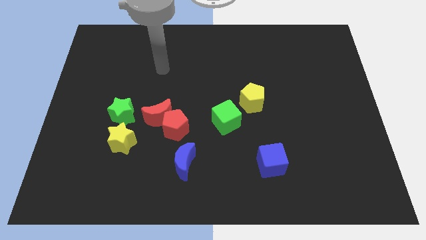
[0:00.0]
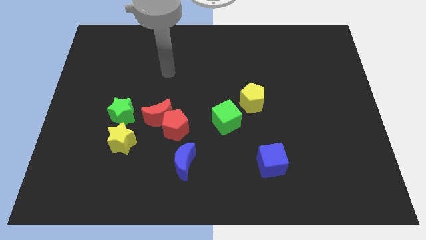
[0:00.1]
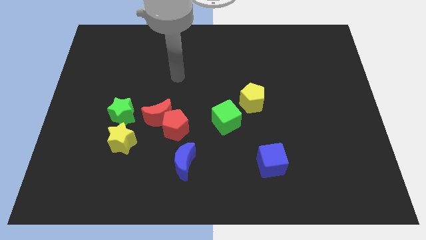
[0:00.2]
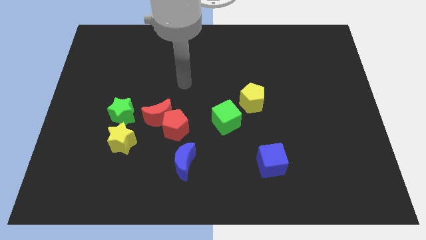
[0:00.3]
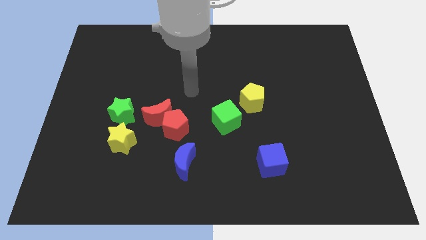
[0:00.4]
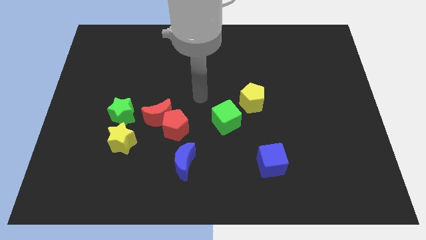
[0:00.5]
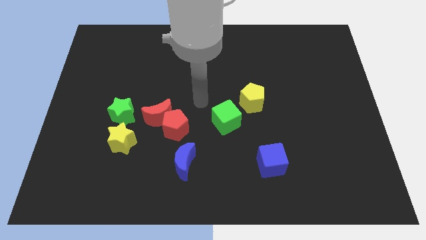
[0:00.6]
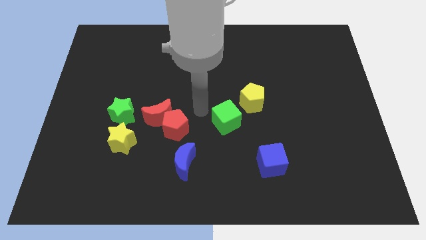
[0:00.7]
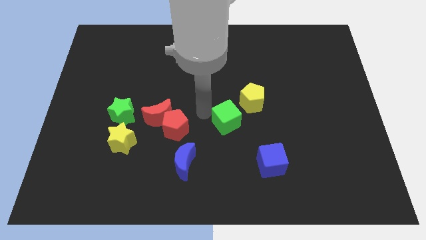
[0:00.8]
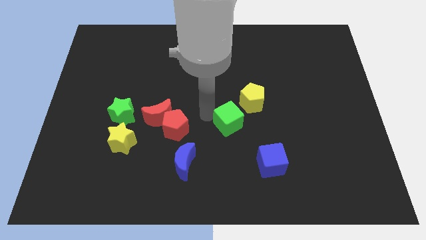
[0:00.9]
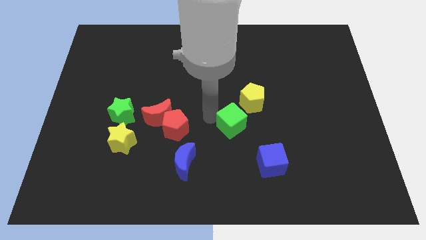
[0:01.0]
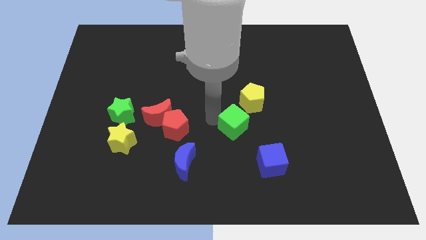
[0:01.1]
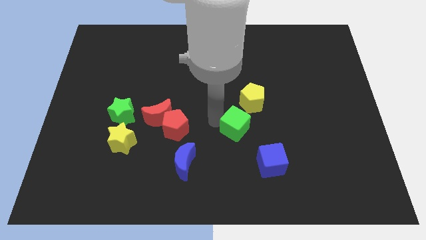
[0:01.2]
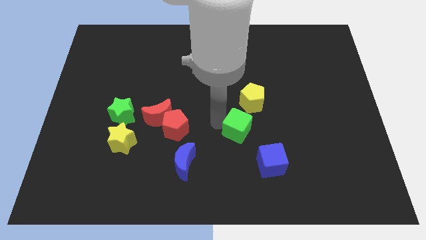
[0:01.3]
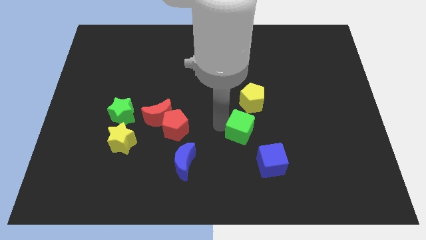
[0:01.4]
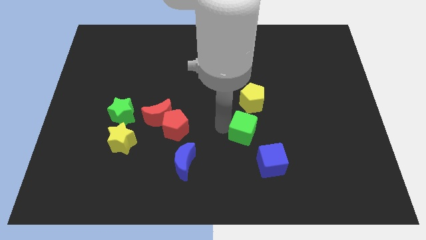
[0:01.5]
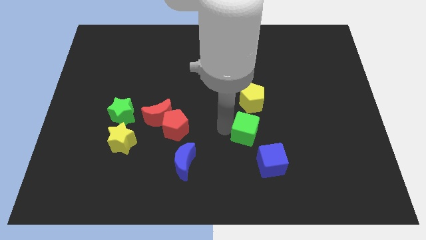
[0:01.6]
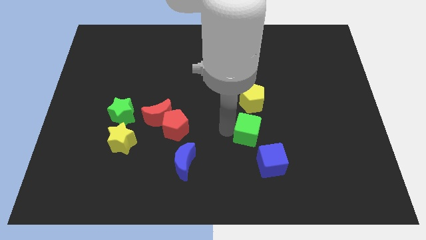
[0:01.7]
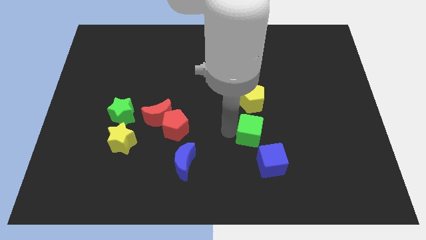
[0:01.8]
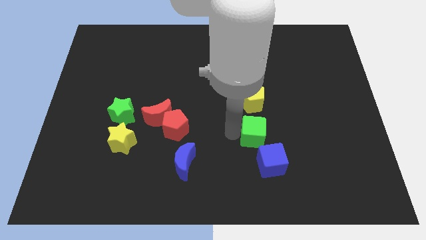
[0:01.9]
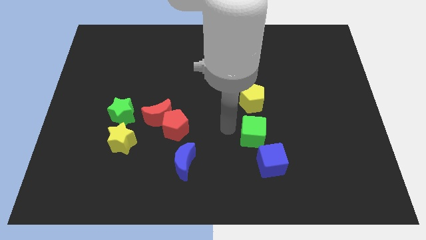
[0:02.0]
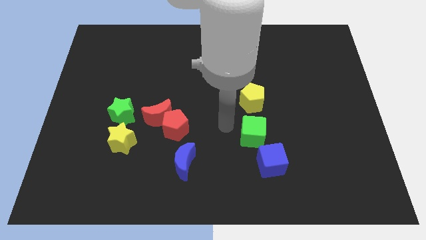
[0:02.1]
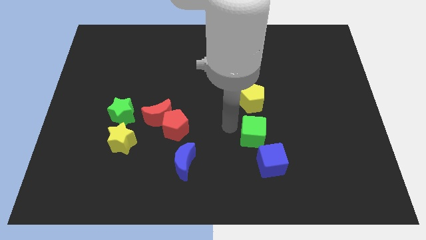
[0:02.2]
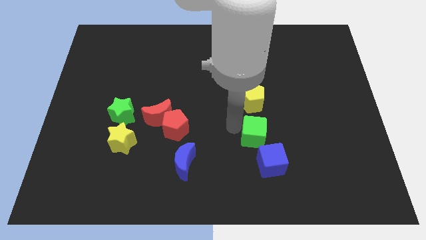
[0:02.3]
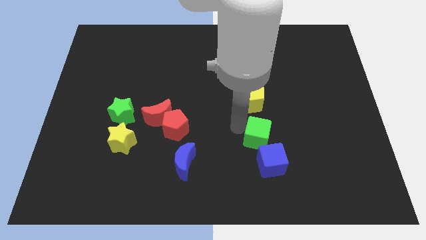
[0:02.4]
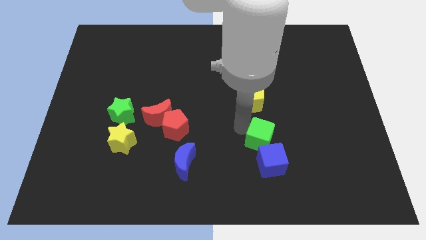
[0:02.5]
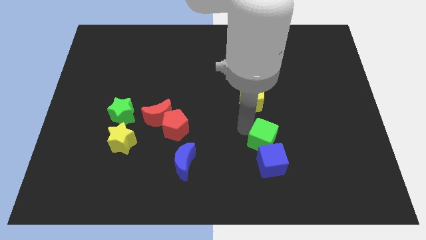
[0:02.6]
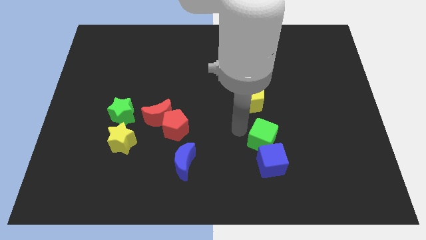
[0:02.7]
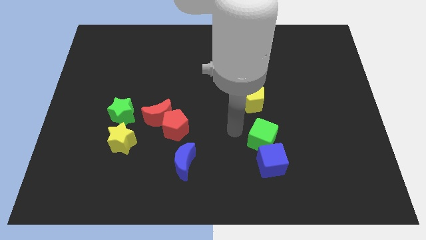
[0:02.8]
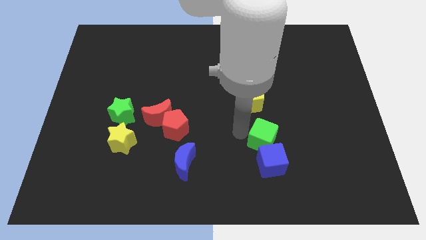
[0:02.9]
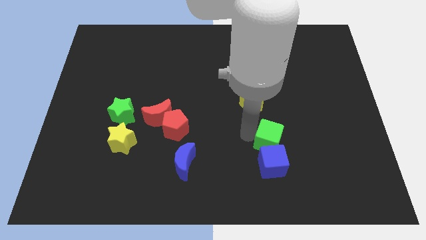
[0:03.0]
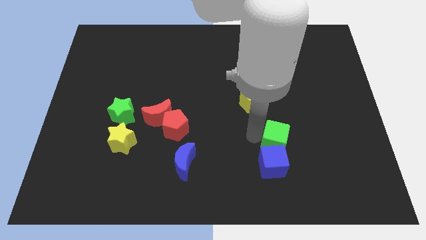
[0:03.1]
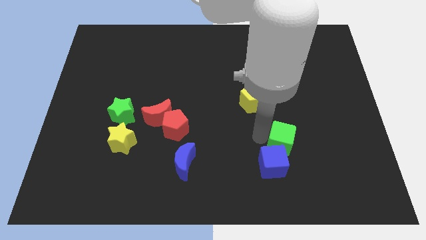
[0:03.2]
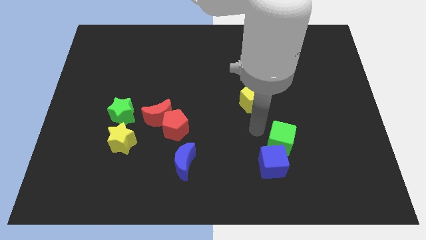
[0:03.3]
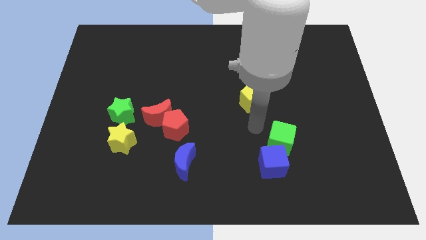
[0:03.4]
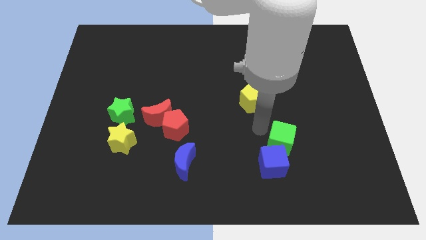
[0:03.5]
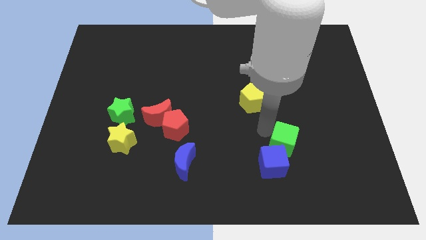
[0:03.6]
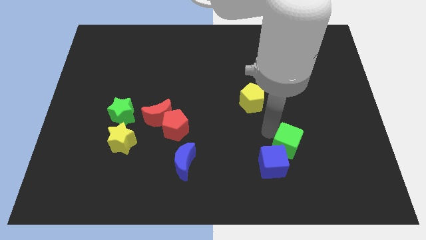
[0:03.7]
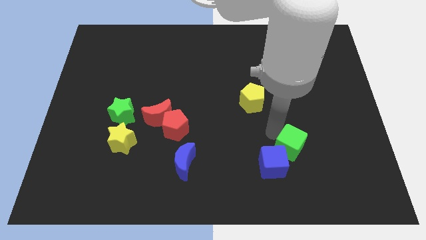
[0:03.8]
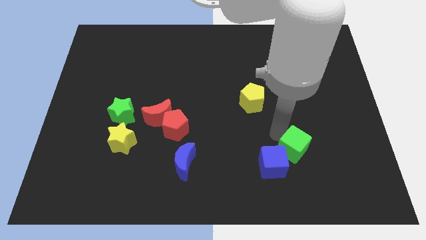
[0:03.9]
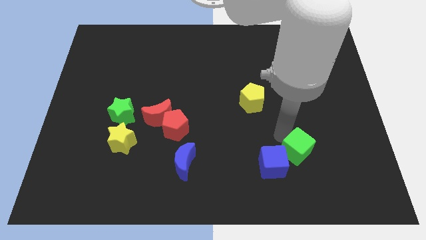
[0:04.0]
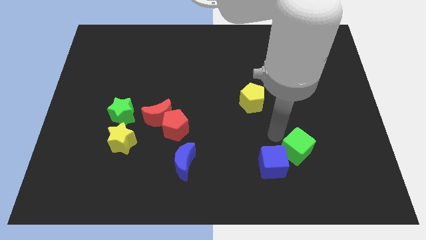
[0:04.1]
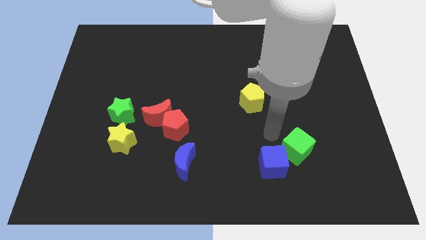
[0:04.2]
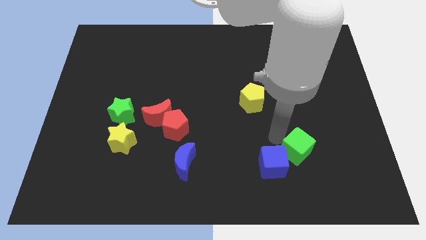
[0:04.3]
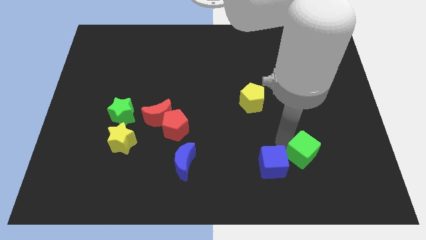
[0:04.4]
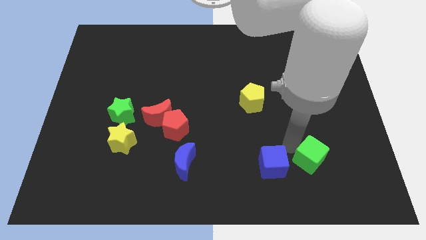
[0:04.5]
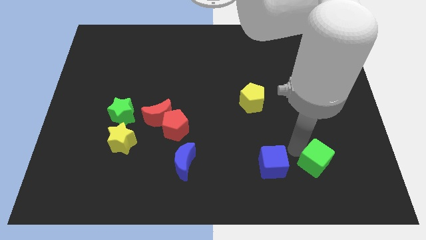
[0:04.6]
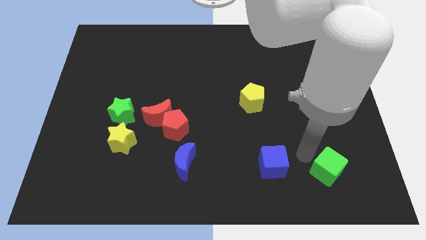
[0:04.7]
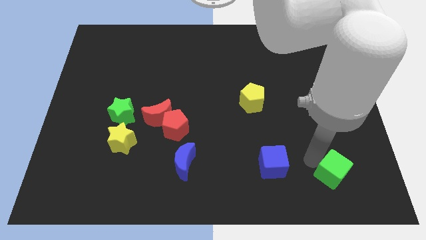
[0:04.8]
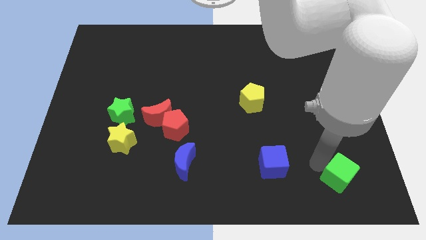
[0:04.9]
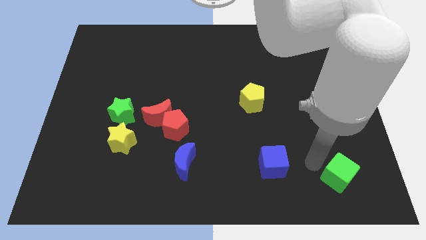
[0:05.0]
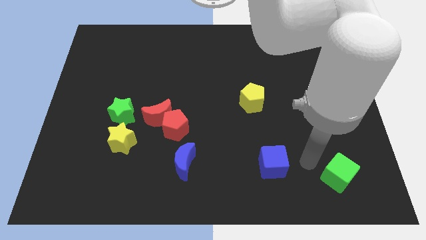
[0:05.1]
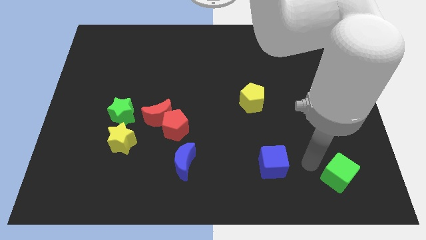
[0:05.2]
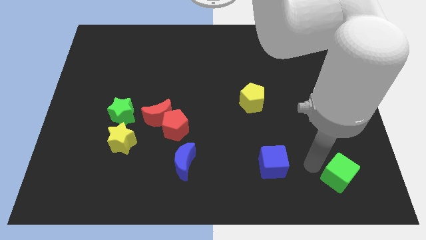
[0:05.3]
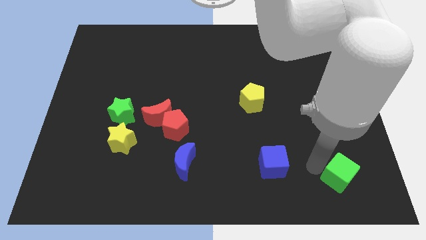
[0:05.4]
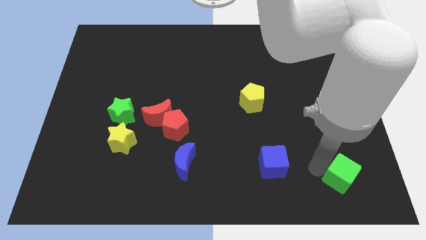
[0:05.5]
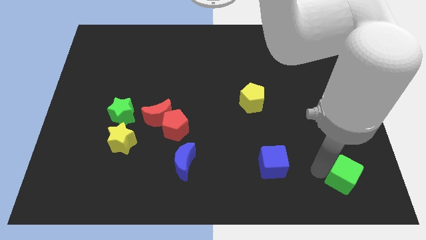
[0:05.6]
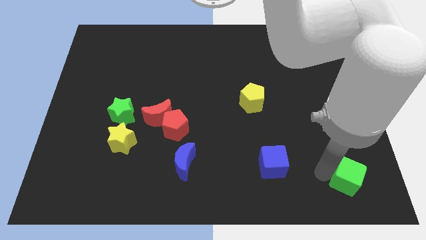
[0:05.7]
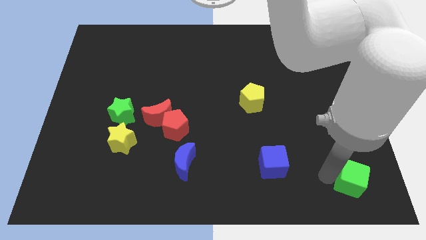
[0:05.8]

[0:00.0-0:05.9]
move the green cube to the bottom right
